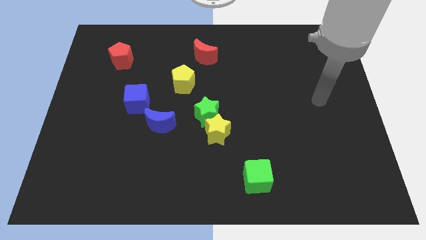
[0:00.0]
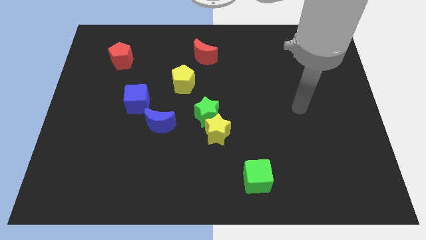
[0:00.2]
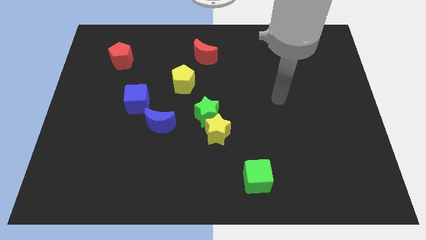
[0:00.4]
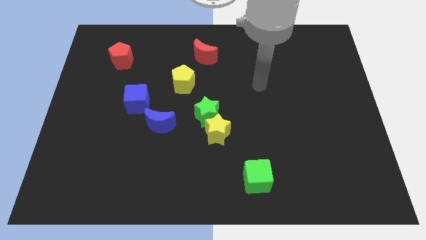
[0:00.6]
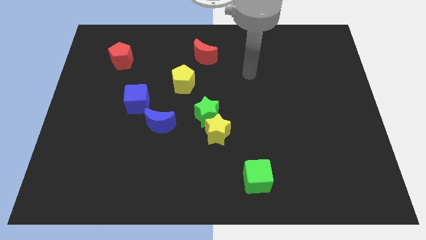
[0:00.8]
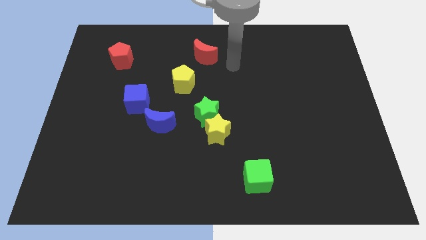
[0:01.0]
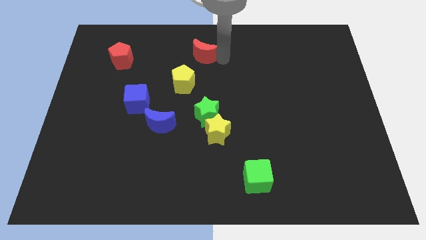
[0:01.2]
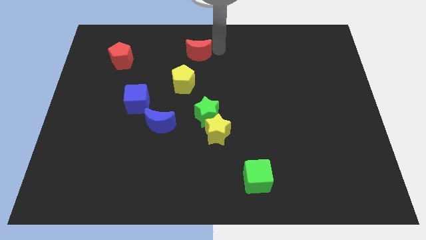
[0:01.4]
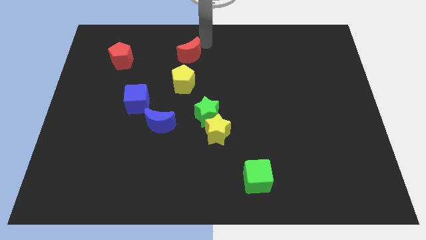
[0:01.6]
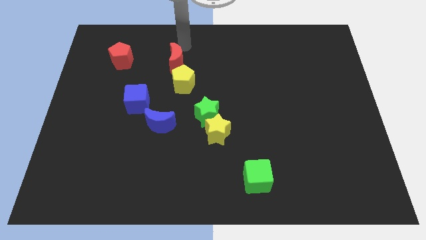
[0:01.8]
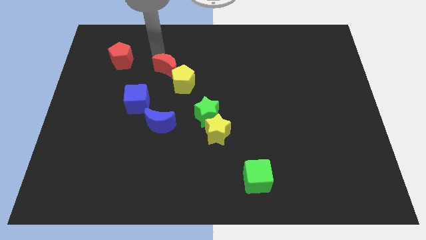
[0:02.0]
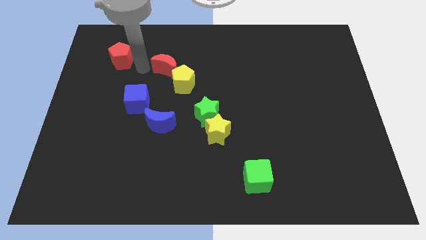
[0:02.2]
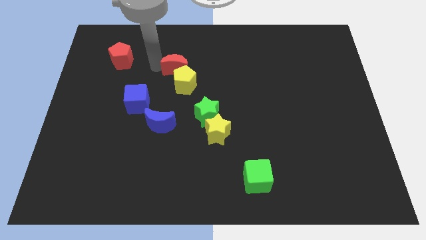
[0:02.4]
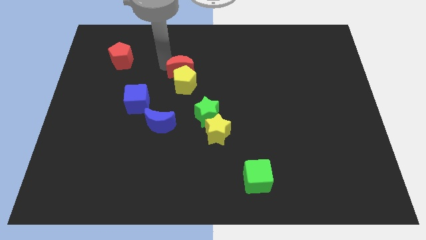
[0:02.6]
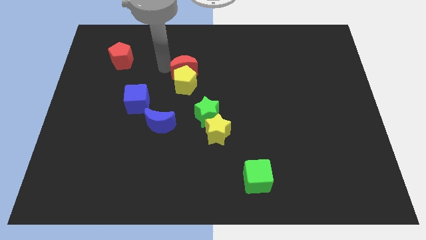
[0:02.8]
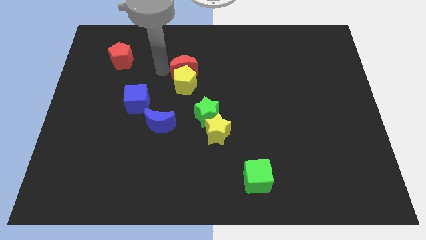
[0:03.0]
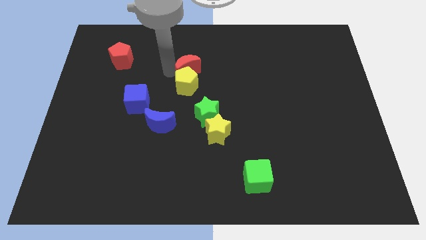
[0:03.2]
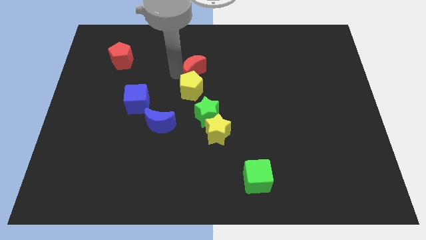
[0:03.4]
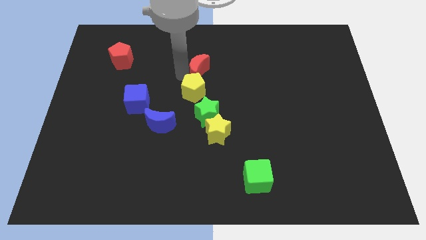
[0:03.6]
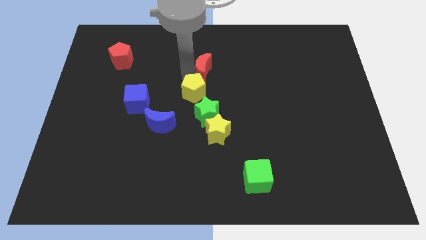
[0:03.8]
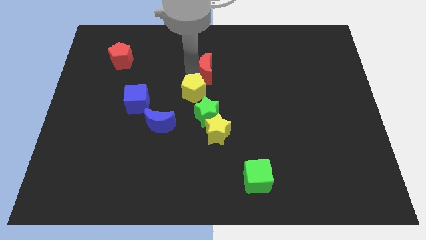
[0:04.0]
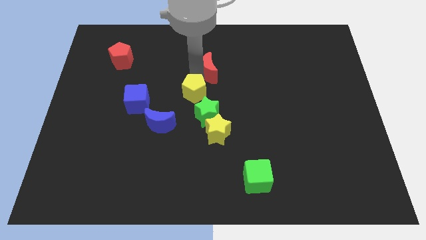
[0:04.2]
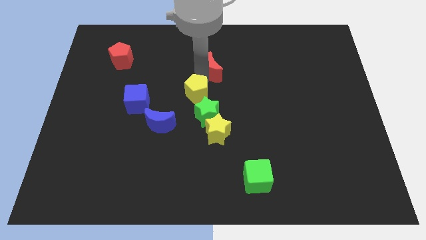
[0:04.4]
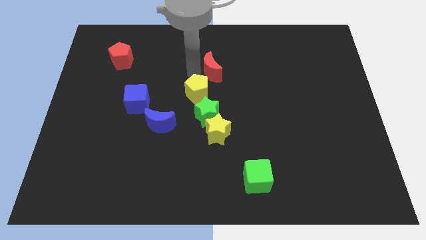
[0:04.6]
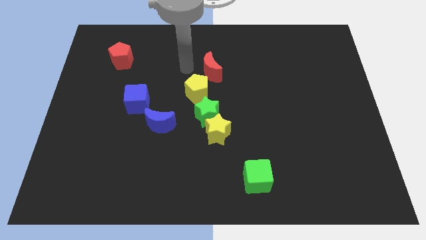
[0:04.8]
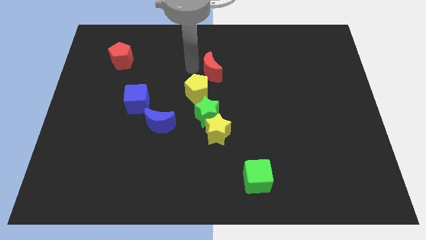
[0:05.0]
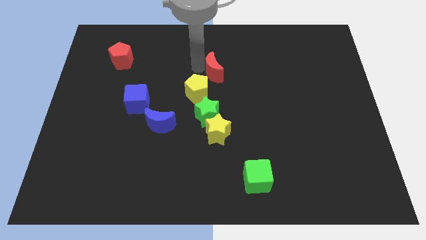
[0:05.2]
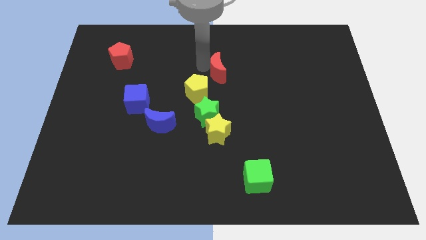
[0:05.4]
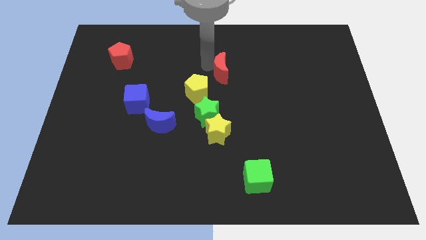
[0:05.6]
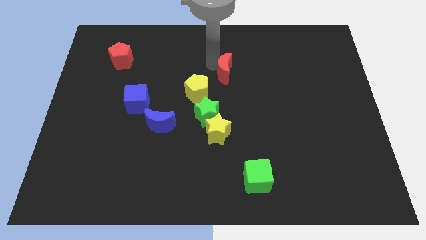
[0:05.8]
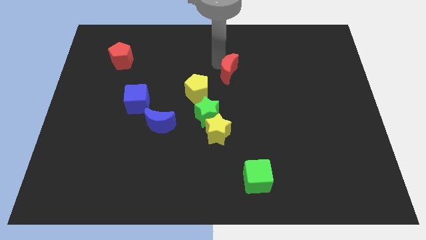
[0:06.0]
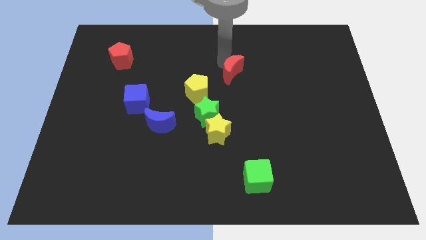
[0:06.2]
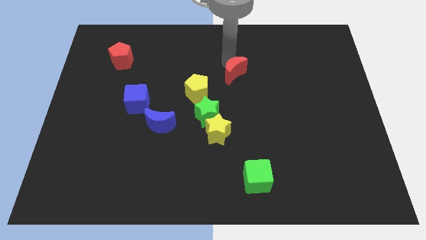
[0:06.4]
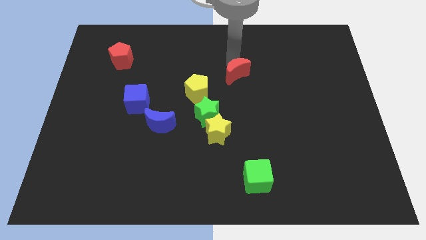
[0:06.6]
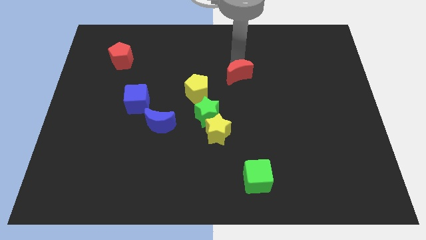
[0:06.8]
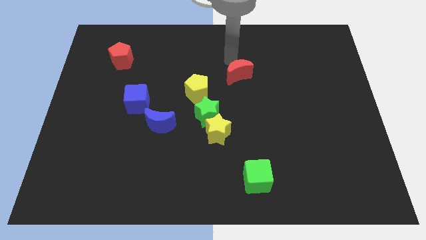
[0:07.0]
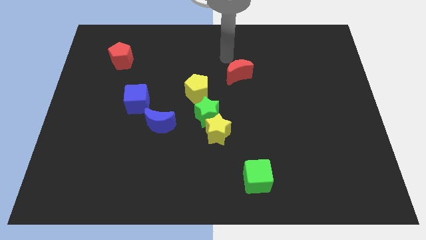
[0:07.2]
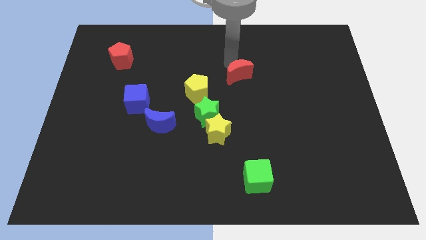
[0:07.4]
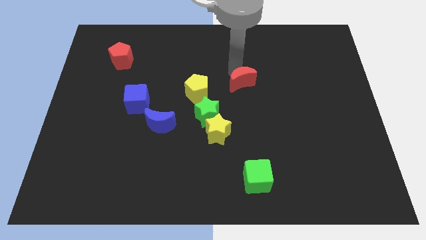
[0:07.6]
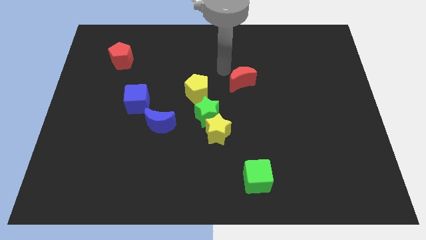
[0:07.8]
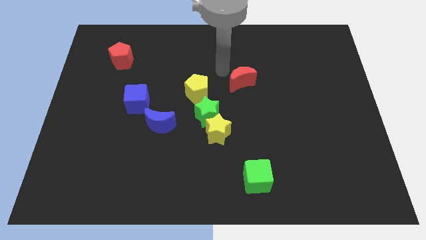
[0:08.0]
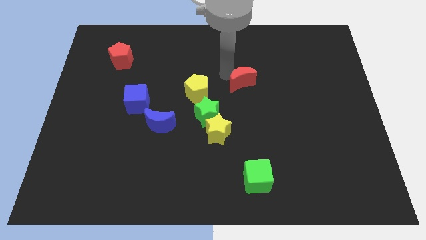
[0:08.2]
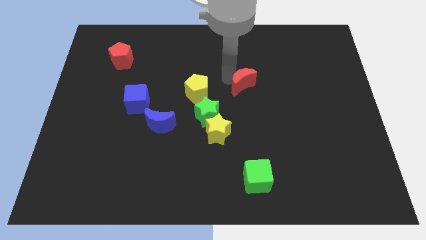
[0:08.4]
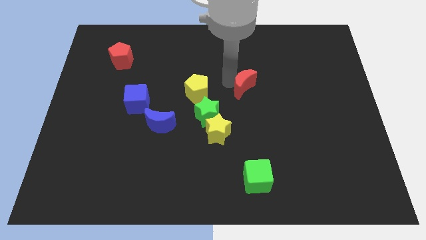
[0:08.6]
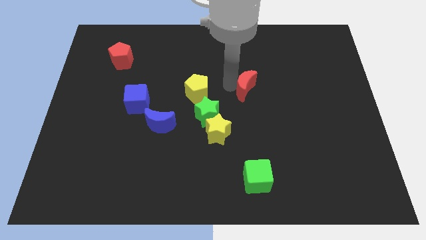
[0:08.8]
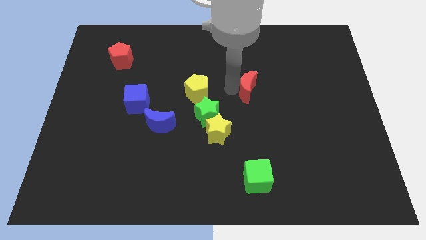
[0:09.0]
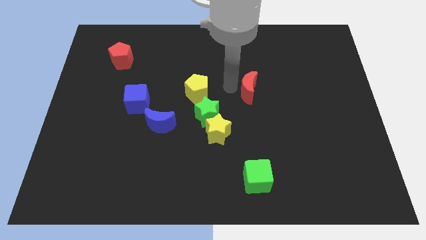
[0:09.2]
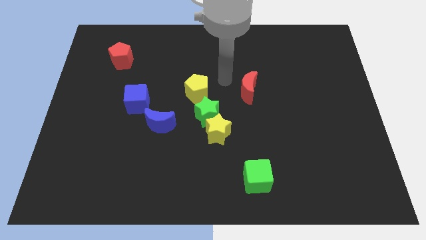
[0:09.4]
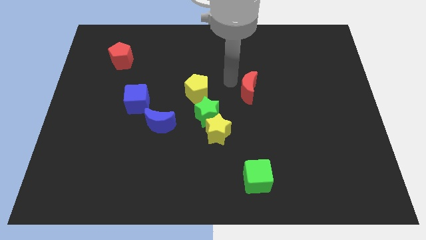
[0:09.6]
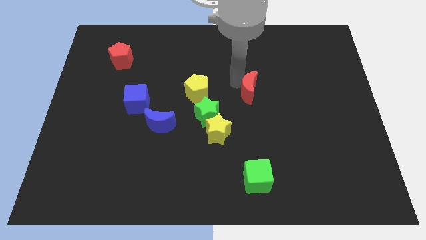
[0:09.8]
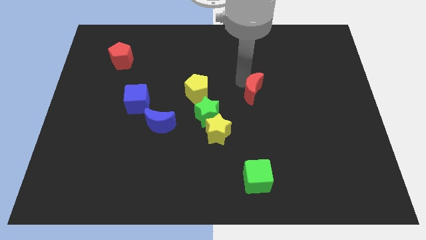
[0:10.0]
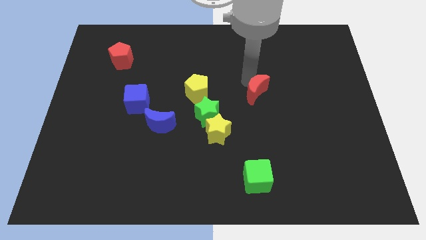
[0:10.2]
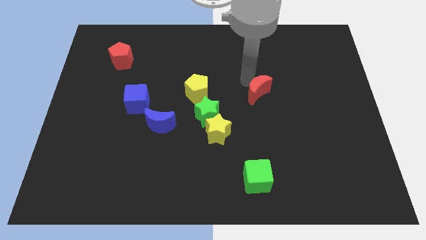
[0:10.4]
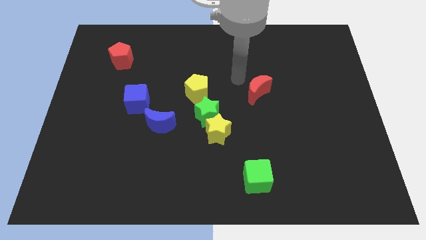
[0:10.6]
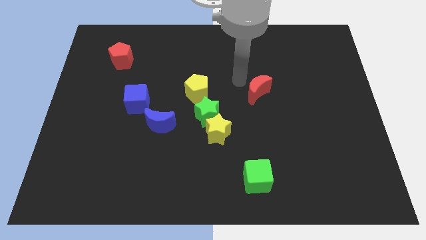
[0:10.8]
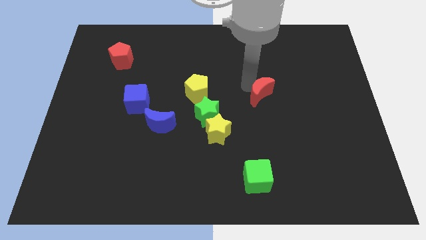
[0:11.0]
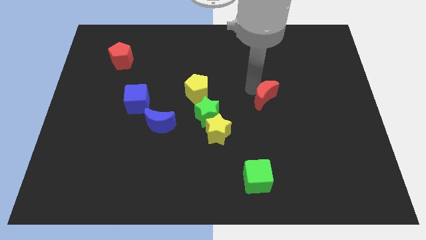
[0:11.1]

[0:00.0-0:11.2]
slide the red moon down and to the right

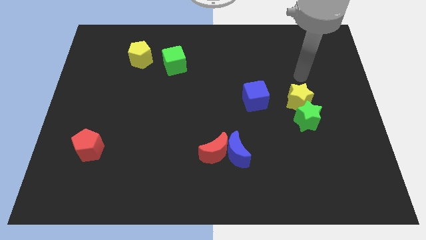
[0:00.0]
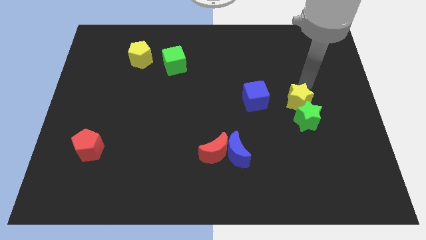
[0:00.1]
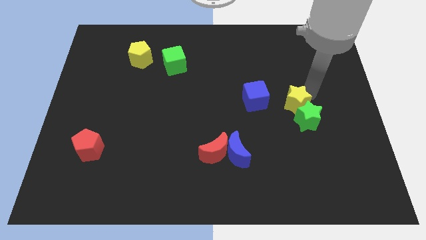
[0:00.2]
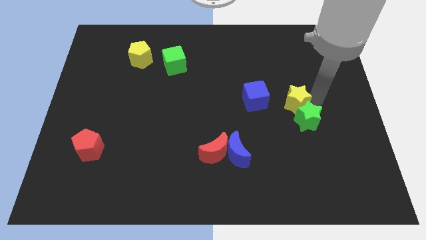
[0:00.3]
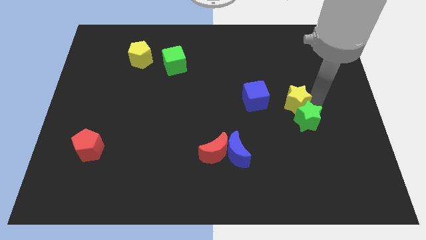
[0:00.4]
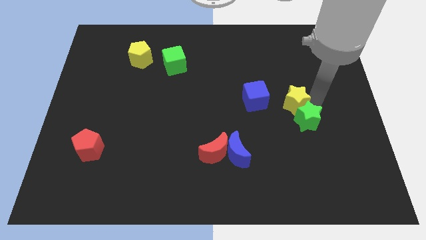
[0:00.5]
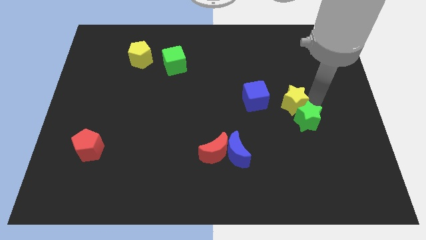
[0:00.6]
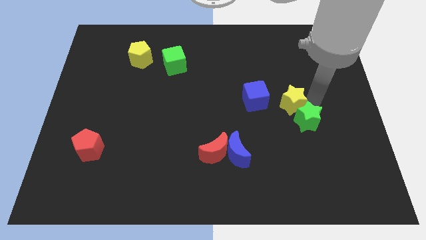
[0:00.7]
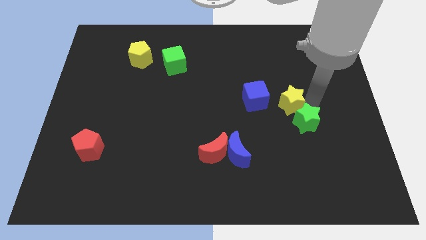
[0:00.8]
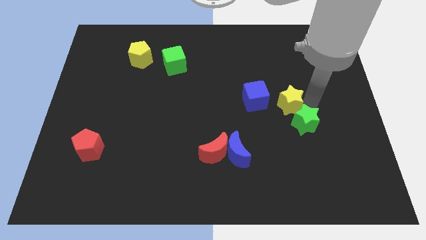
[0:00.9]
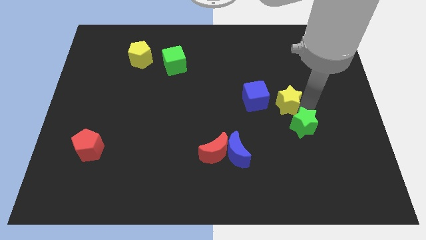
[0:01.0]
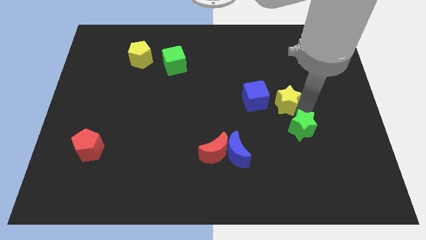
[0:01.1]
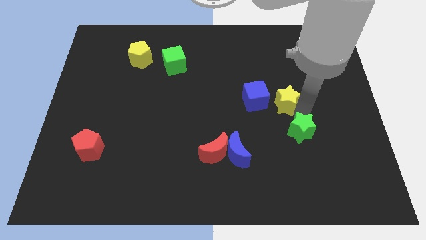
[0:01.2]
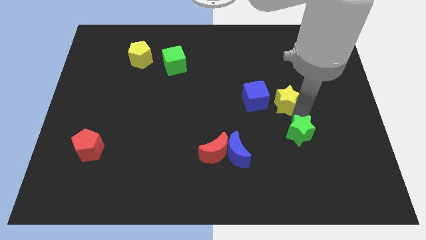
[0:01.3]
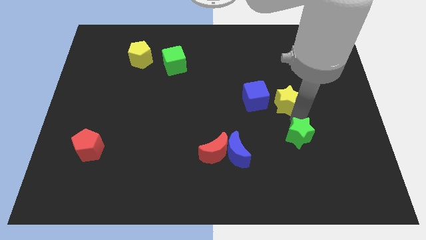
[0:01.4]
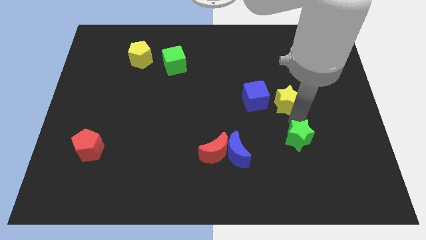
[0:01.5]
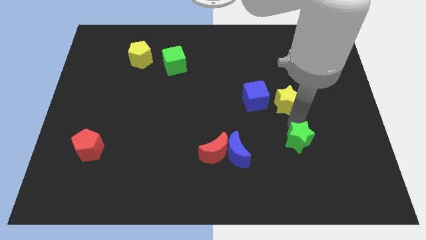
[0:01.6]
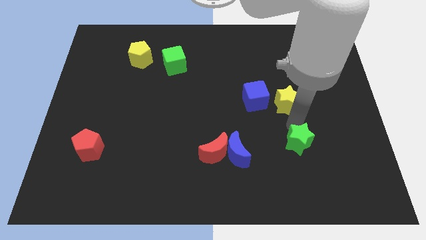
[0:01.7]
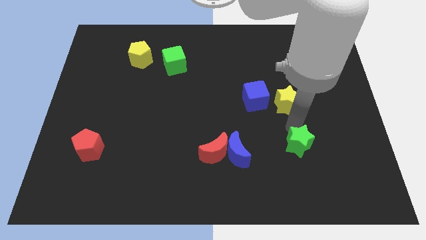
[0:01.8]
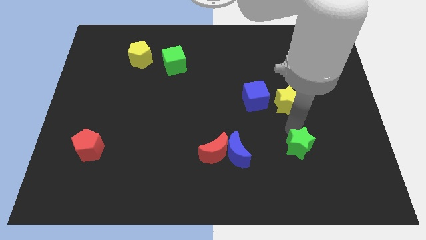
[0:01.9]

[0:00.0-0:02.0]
slightly slide the green star down and to the left diagonally

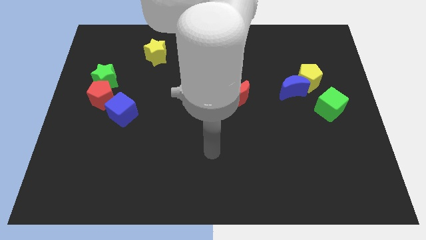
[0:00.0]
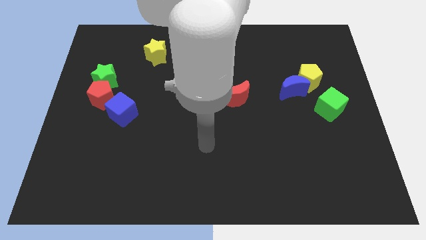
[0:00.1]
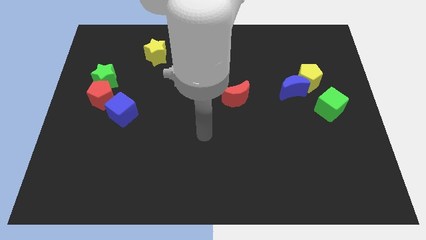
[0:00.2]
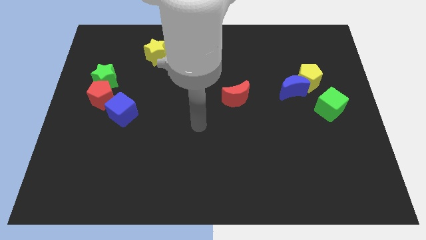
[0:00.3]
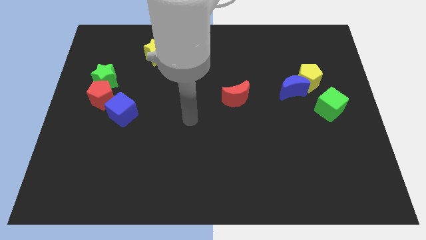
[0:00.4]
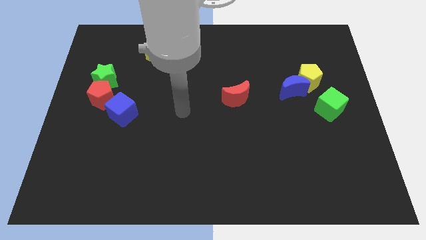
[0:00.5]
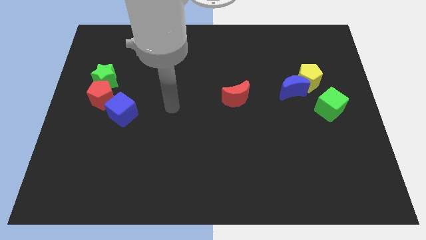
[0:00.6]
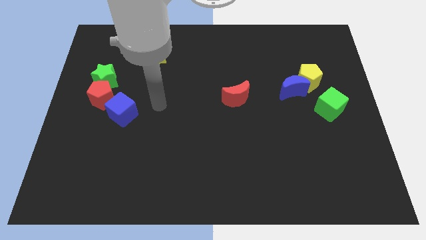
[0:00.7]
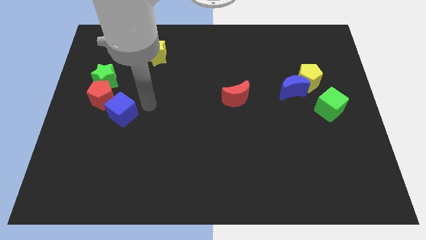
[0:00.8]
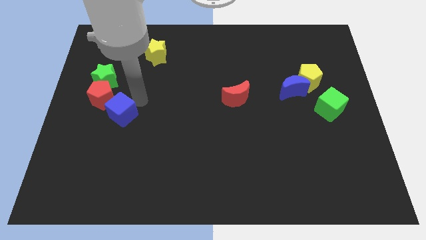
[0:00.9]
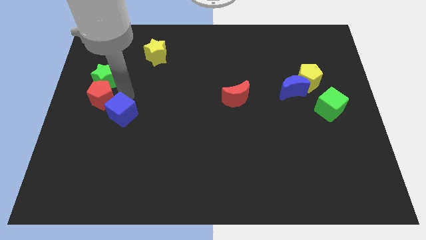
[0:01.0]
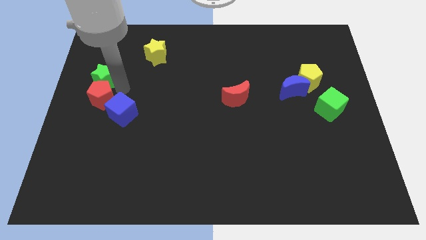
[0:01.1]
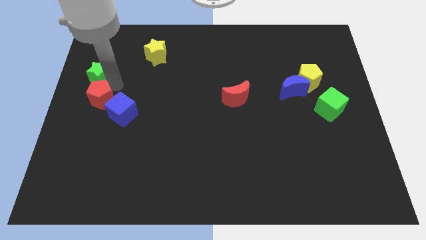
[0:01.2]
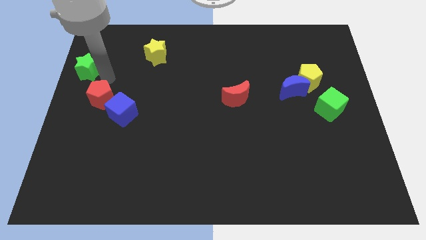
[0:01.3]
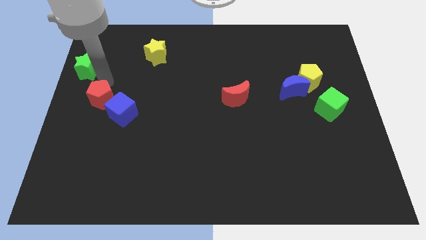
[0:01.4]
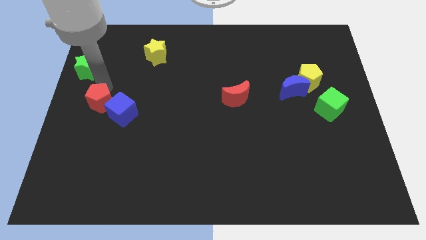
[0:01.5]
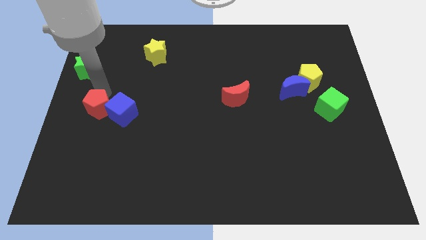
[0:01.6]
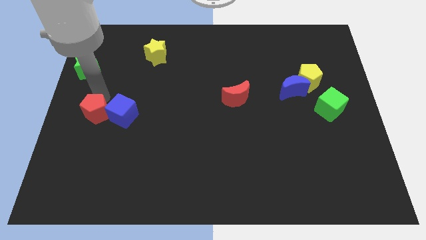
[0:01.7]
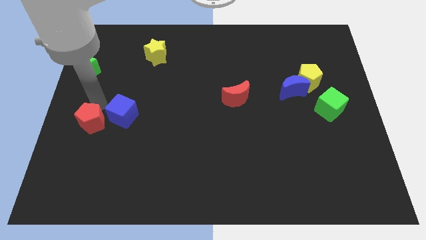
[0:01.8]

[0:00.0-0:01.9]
slide the red pentagon a bit downwards
